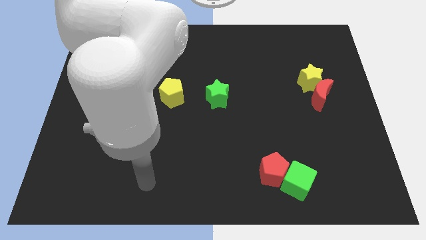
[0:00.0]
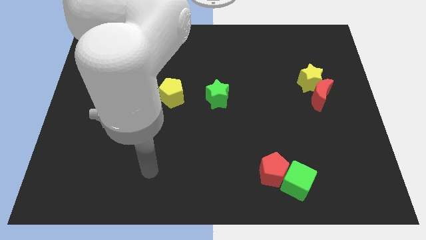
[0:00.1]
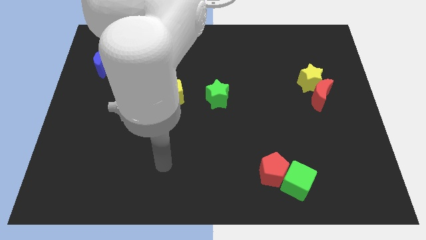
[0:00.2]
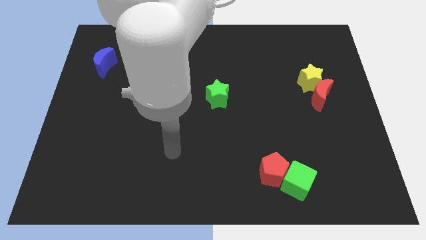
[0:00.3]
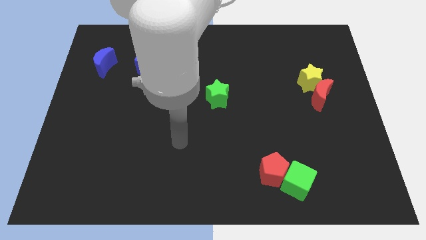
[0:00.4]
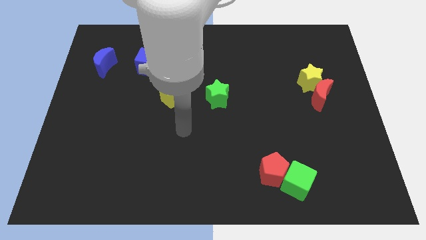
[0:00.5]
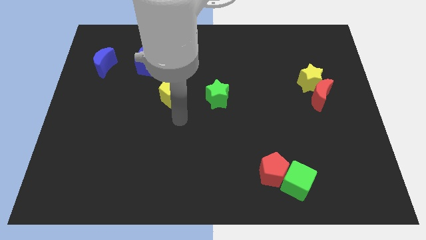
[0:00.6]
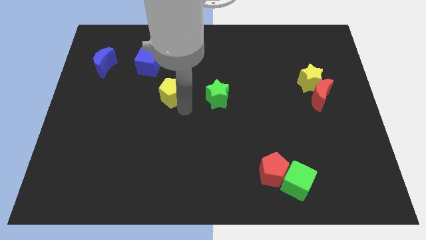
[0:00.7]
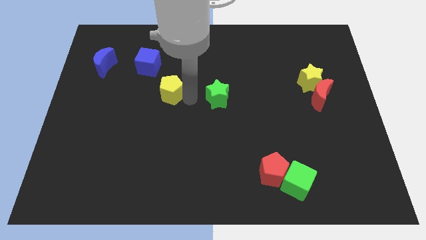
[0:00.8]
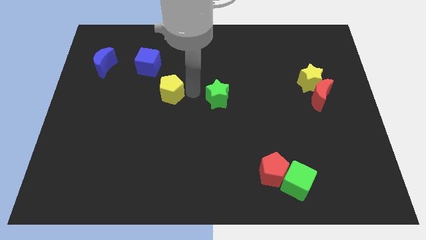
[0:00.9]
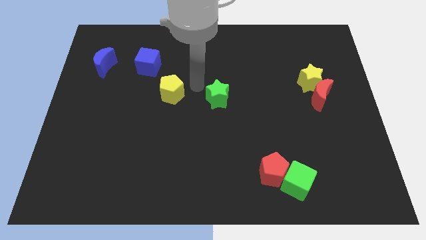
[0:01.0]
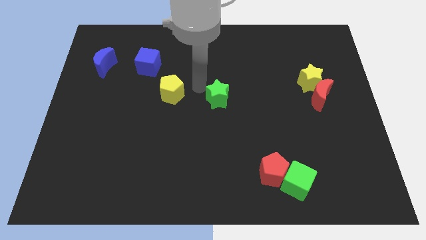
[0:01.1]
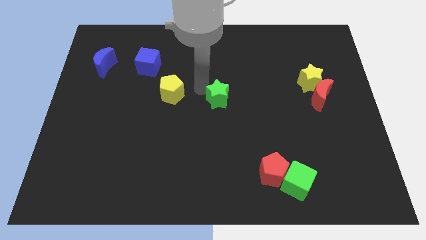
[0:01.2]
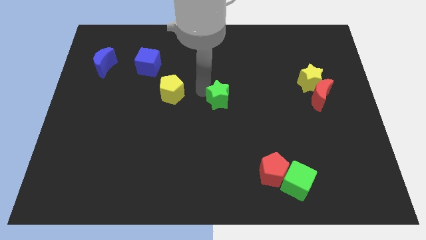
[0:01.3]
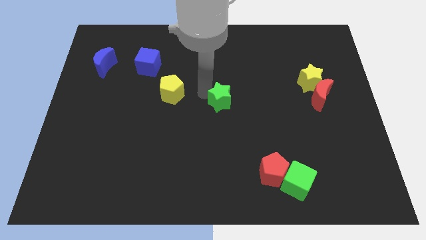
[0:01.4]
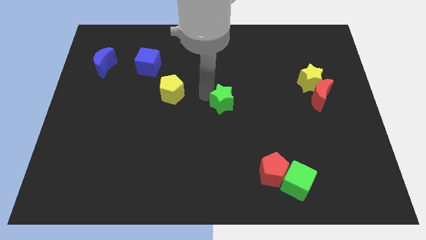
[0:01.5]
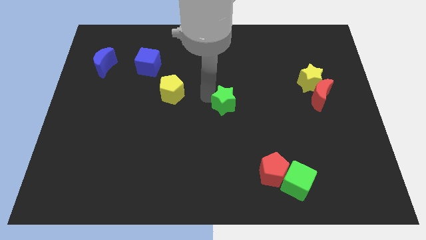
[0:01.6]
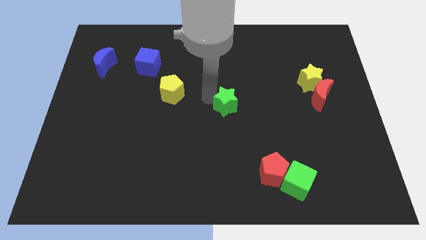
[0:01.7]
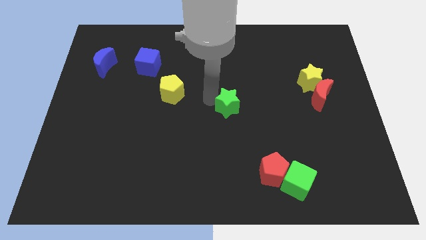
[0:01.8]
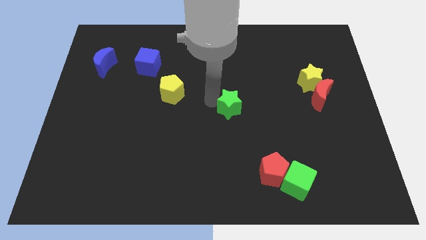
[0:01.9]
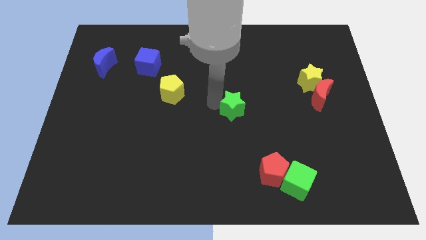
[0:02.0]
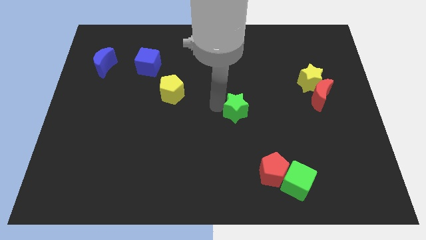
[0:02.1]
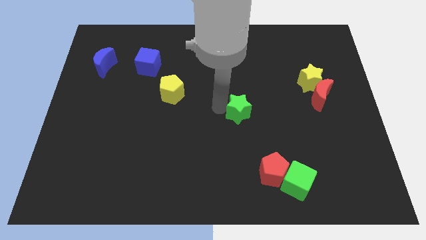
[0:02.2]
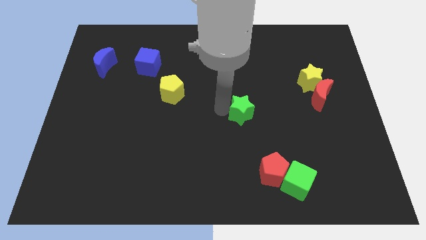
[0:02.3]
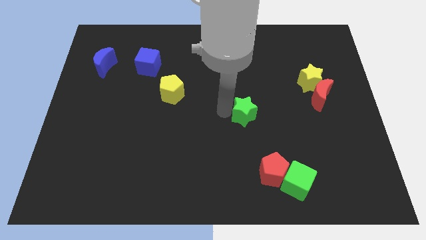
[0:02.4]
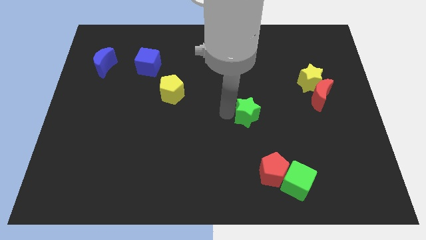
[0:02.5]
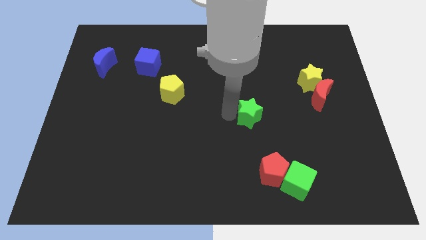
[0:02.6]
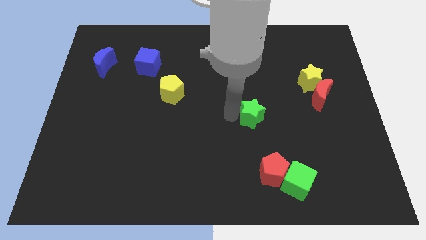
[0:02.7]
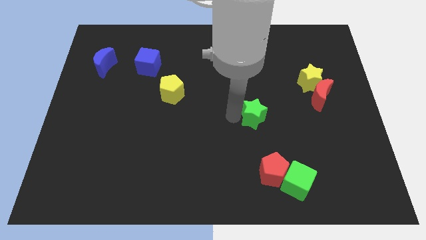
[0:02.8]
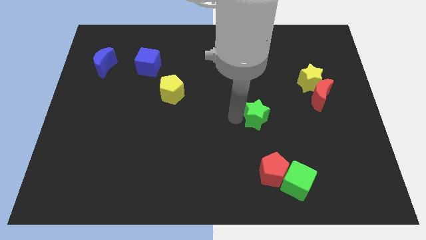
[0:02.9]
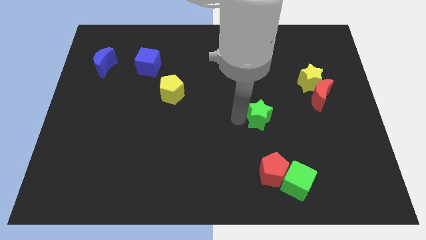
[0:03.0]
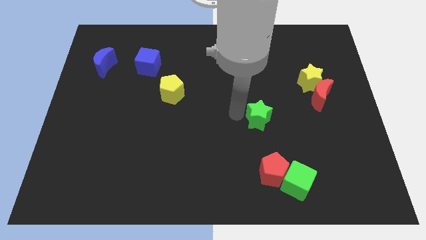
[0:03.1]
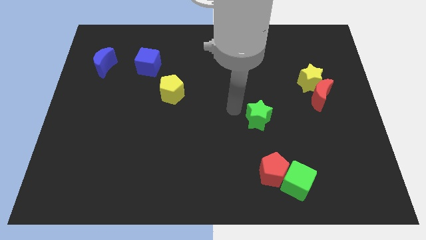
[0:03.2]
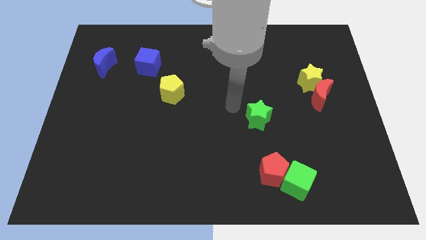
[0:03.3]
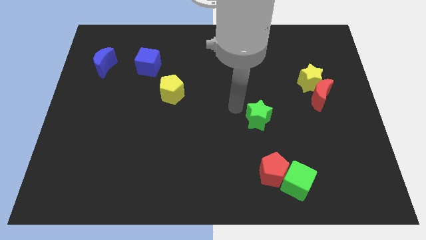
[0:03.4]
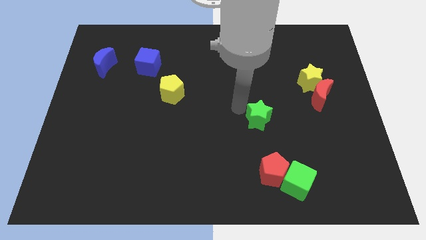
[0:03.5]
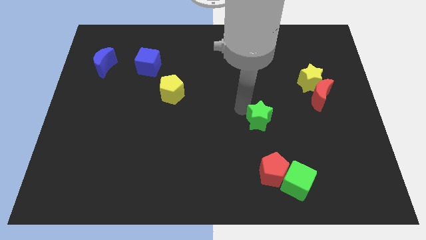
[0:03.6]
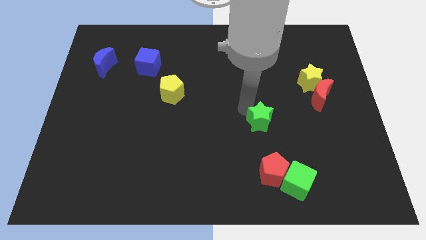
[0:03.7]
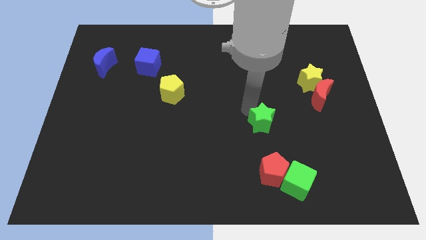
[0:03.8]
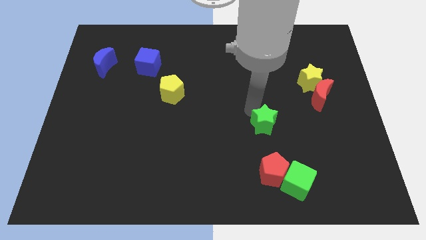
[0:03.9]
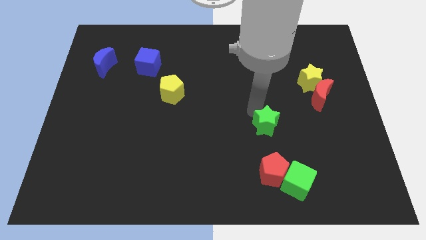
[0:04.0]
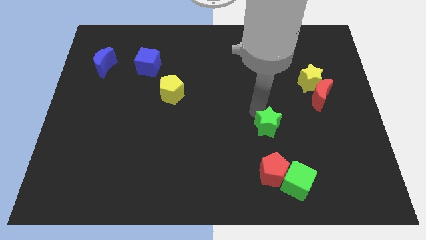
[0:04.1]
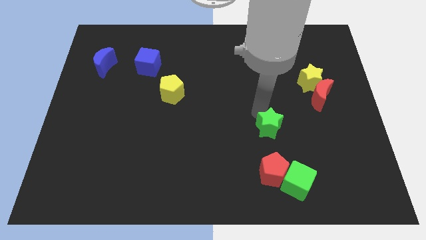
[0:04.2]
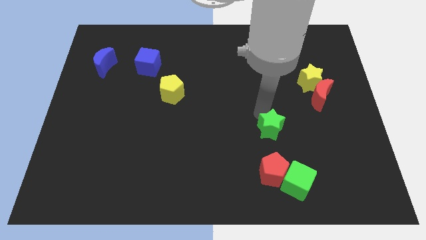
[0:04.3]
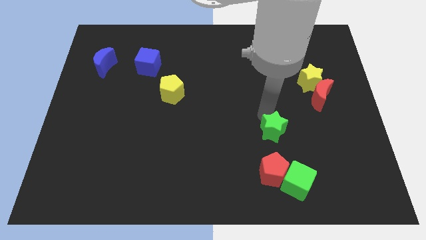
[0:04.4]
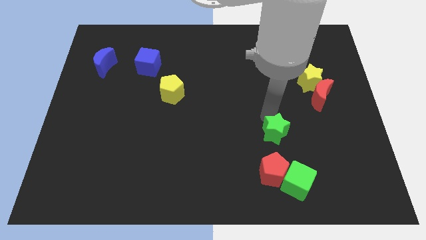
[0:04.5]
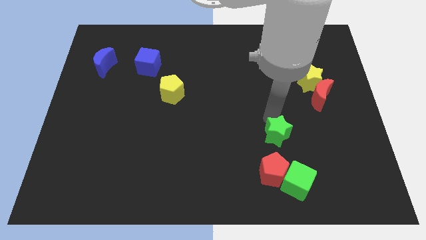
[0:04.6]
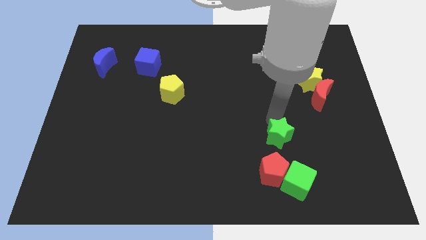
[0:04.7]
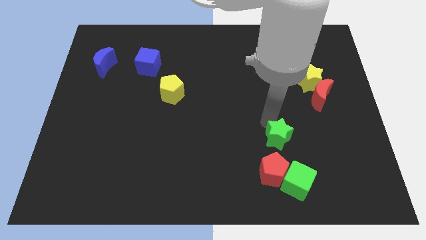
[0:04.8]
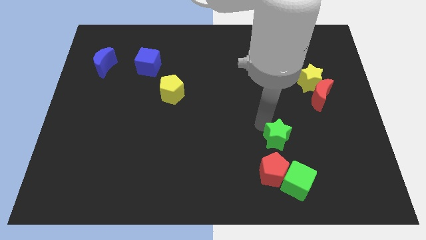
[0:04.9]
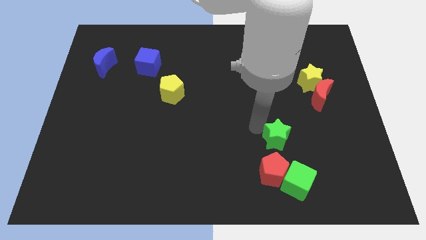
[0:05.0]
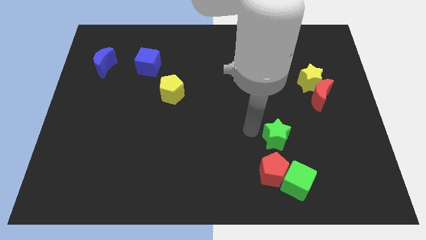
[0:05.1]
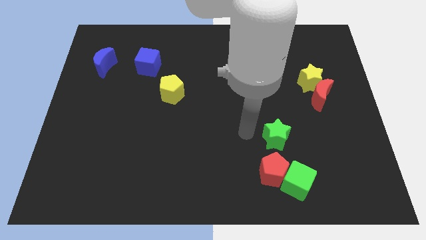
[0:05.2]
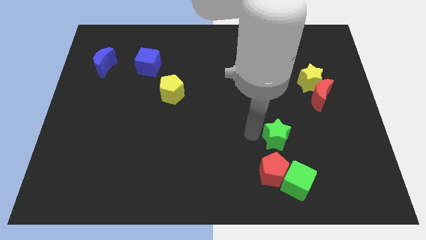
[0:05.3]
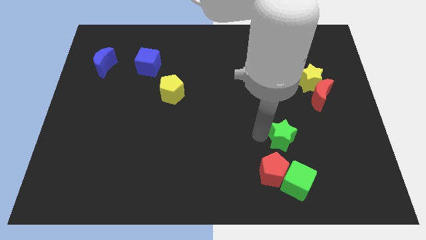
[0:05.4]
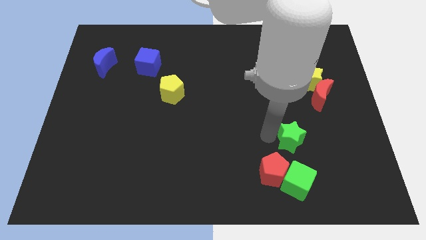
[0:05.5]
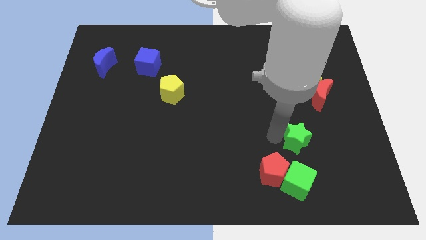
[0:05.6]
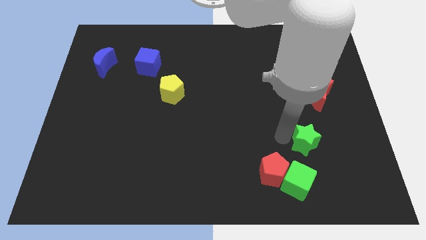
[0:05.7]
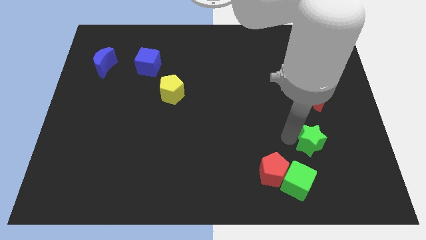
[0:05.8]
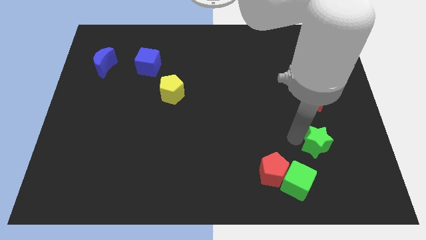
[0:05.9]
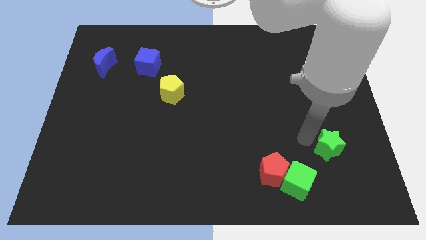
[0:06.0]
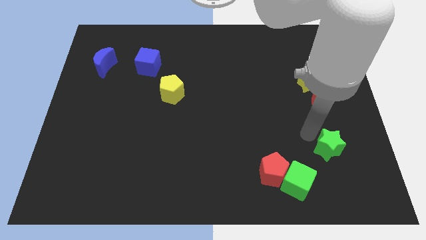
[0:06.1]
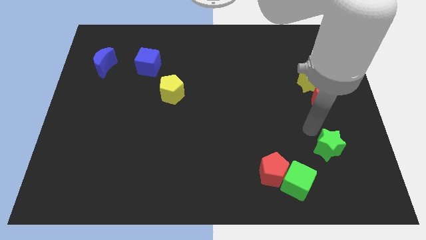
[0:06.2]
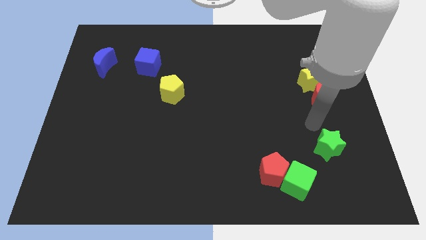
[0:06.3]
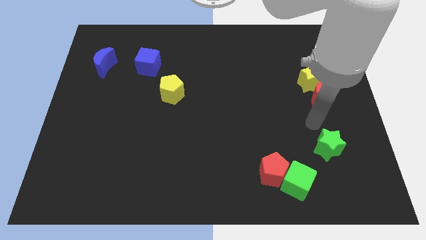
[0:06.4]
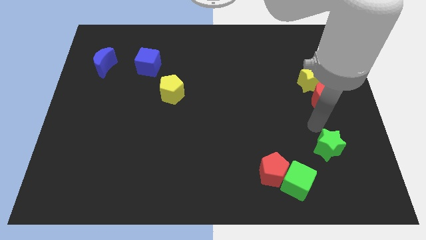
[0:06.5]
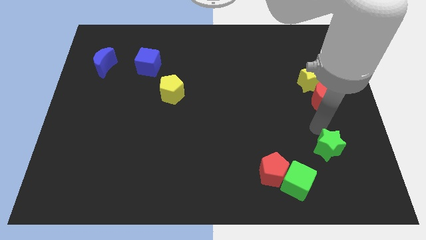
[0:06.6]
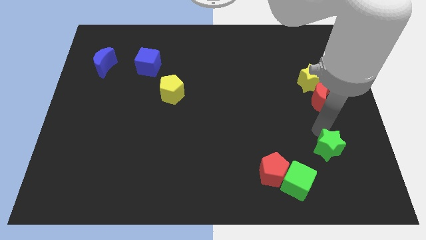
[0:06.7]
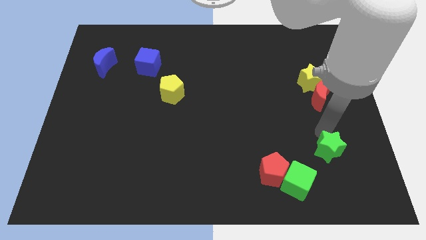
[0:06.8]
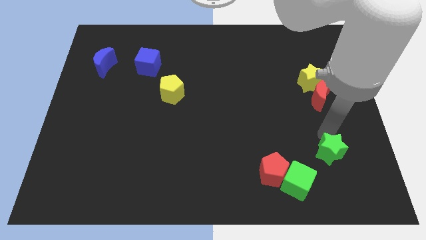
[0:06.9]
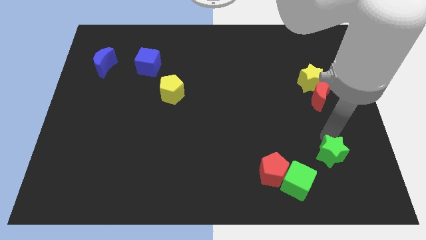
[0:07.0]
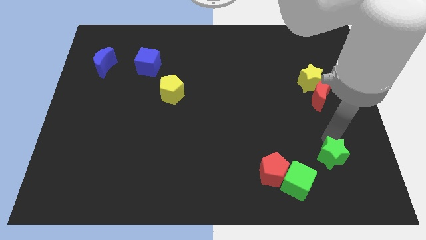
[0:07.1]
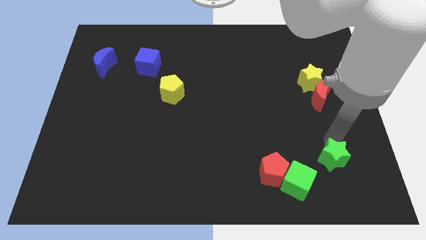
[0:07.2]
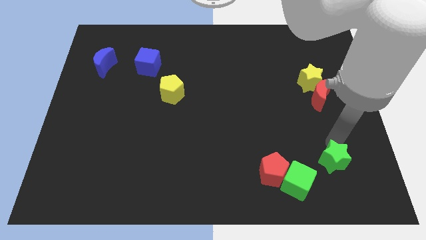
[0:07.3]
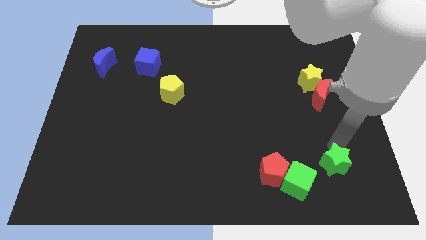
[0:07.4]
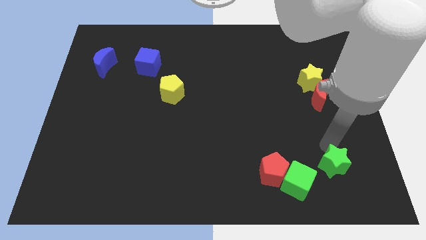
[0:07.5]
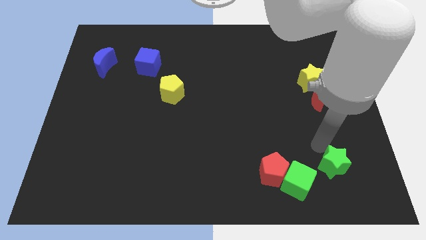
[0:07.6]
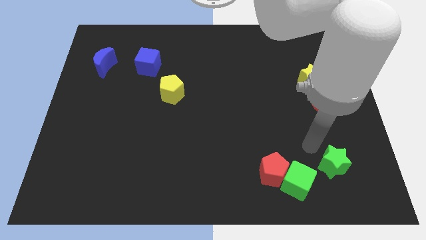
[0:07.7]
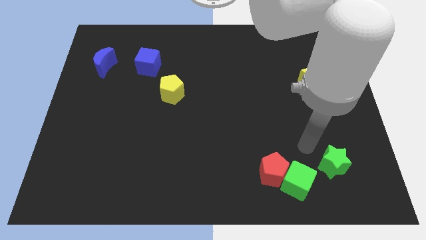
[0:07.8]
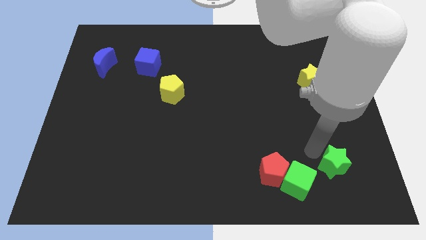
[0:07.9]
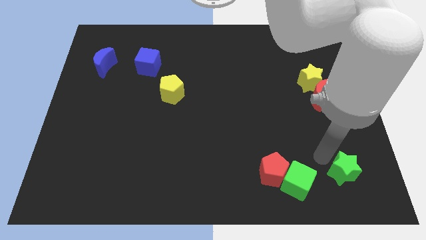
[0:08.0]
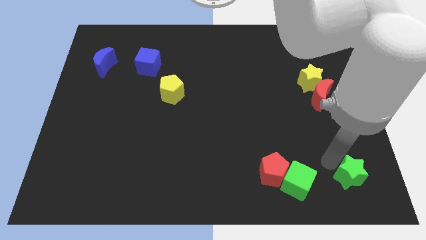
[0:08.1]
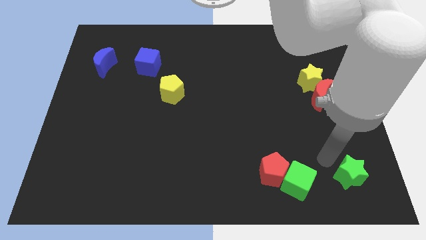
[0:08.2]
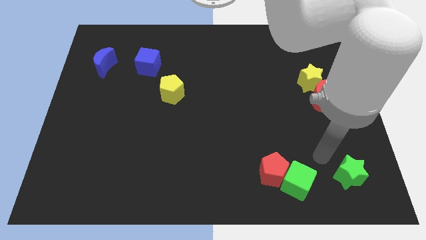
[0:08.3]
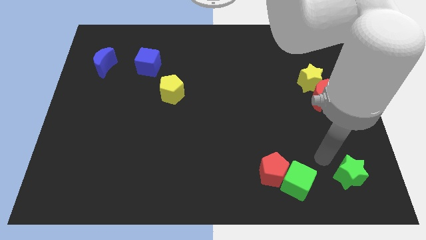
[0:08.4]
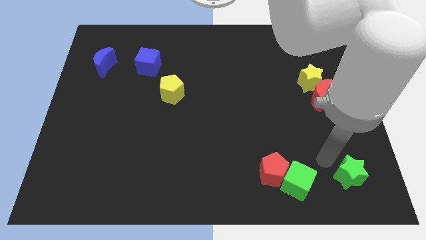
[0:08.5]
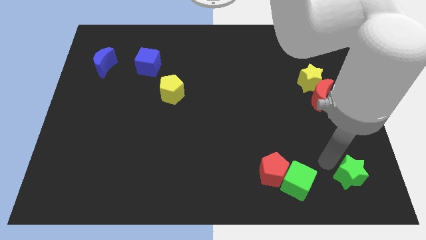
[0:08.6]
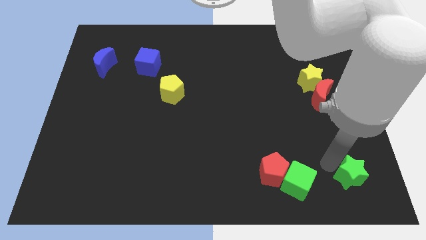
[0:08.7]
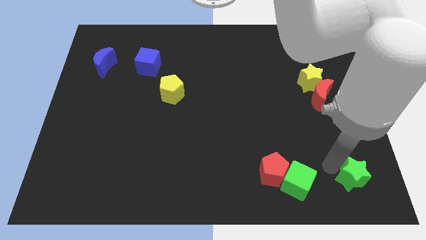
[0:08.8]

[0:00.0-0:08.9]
slide the green star to the bottom right
